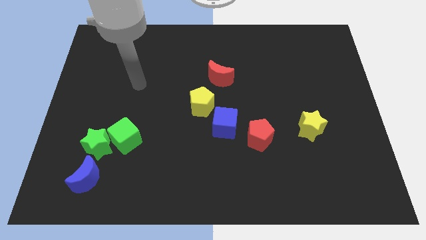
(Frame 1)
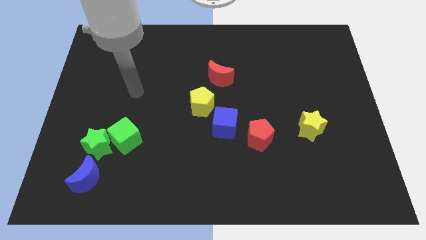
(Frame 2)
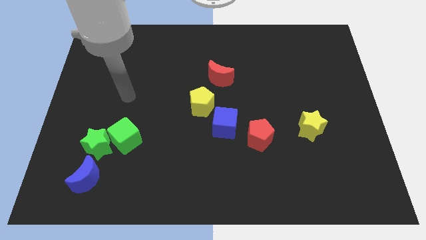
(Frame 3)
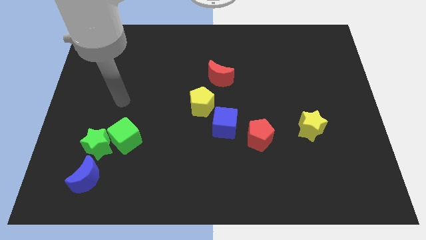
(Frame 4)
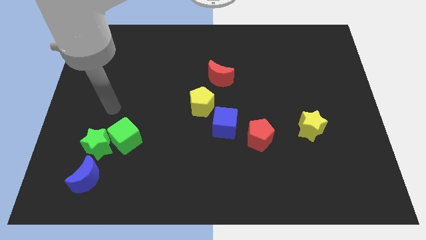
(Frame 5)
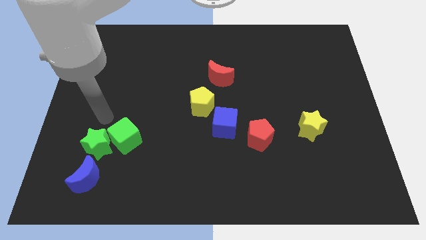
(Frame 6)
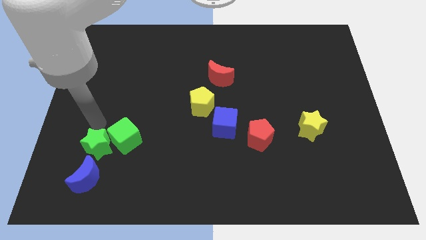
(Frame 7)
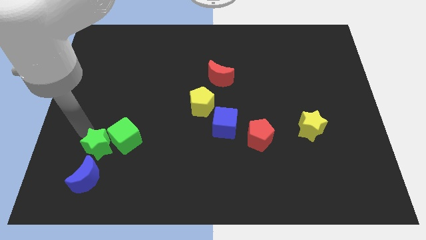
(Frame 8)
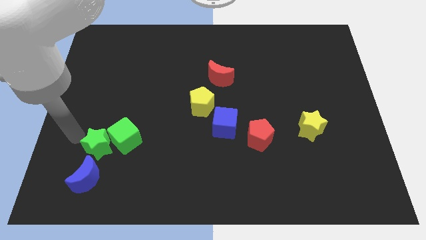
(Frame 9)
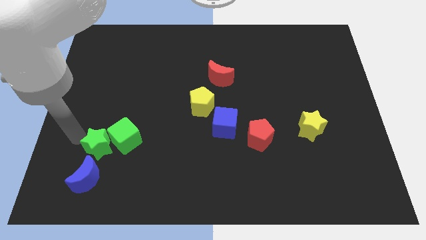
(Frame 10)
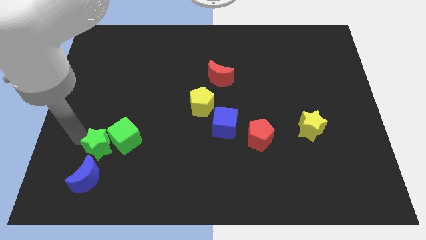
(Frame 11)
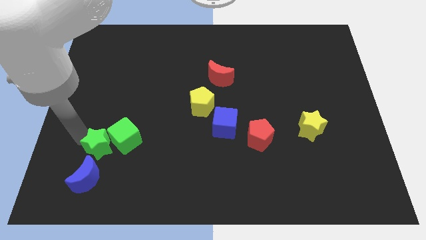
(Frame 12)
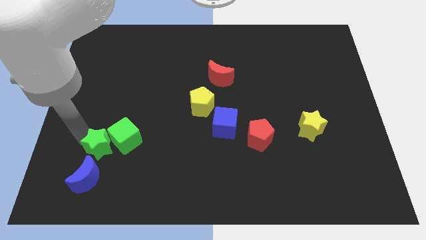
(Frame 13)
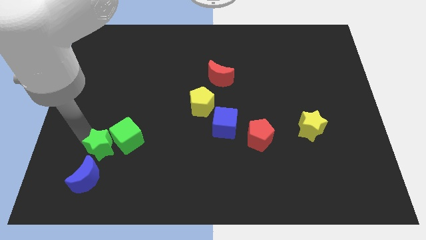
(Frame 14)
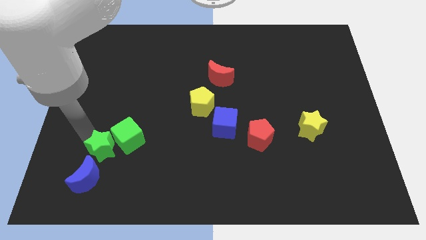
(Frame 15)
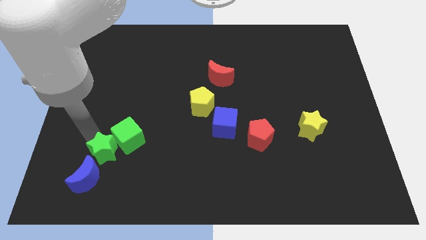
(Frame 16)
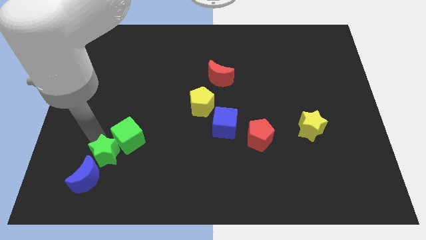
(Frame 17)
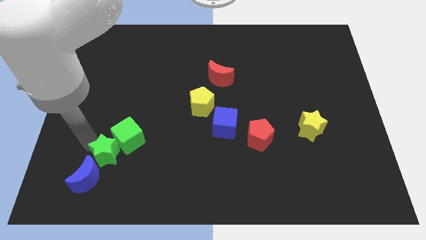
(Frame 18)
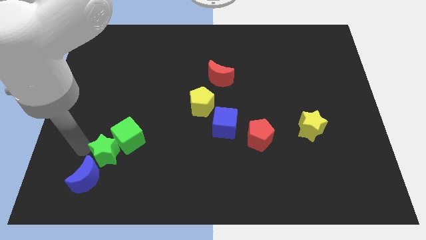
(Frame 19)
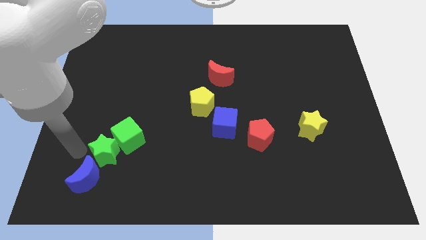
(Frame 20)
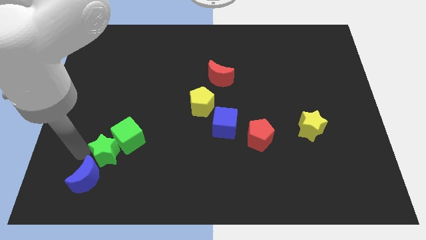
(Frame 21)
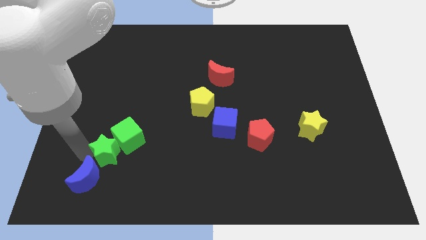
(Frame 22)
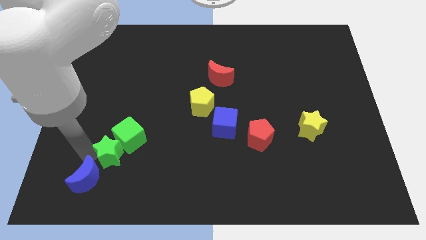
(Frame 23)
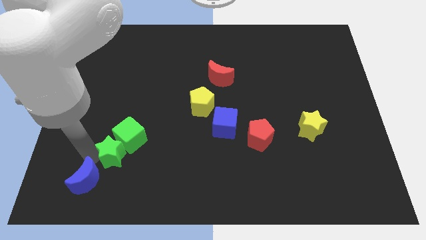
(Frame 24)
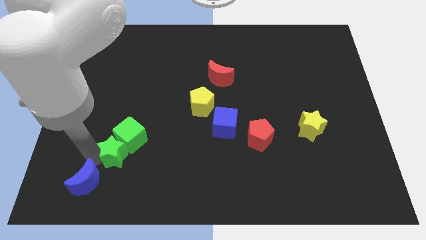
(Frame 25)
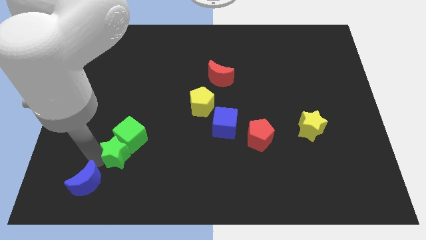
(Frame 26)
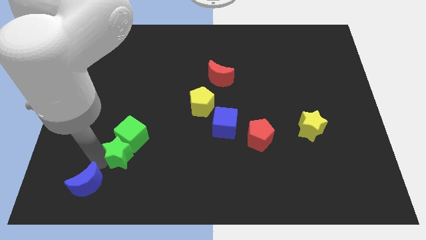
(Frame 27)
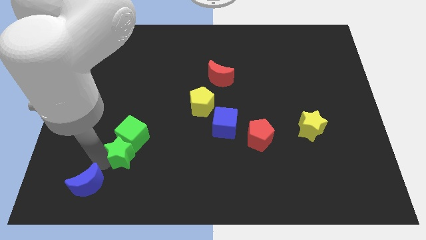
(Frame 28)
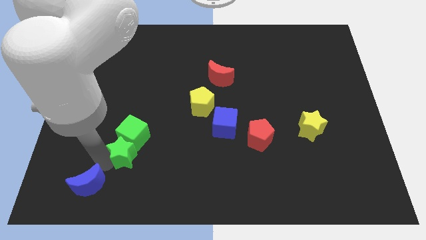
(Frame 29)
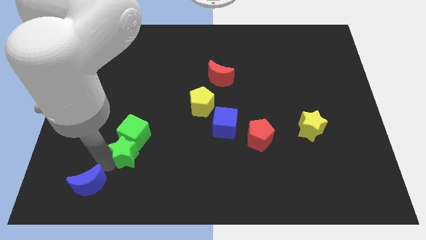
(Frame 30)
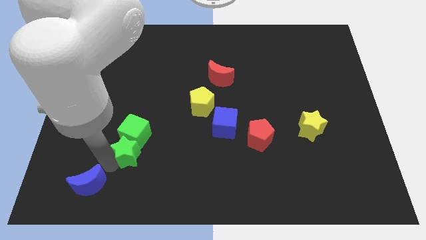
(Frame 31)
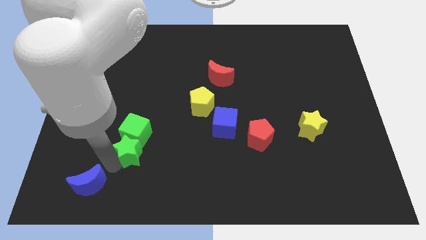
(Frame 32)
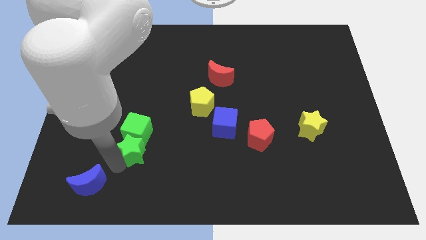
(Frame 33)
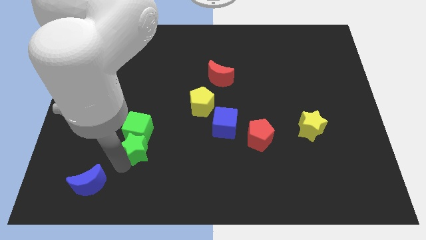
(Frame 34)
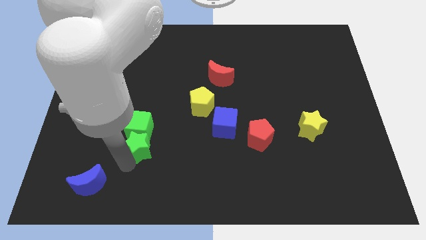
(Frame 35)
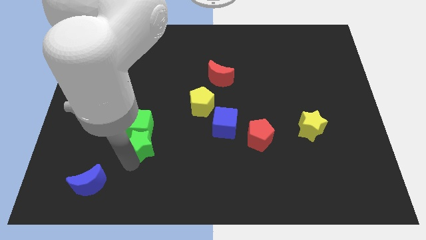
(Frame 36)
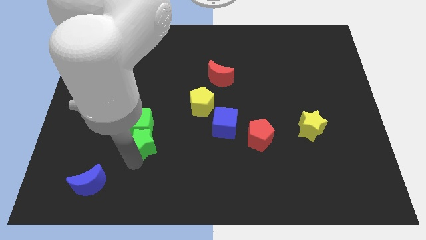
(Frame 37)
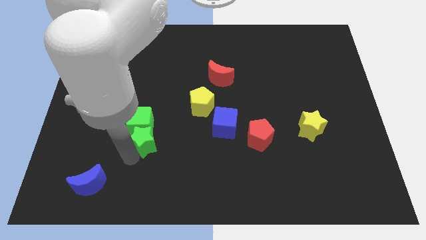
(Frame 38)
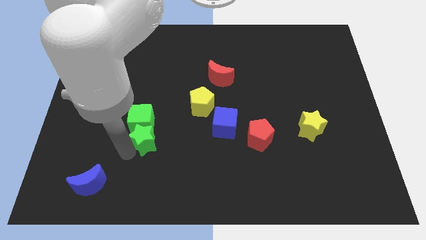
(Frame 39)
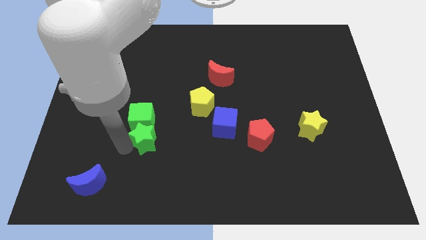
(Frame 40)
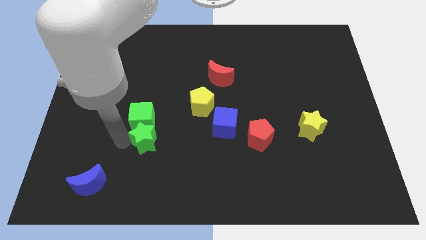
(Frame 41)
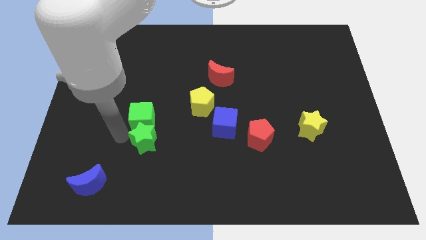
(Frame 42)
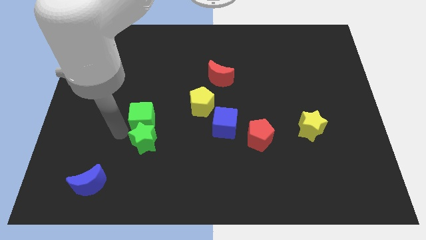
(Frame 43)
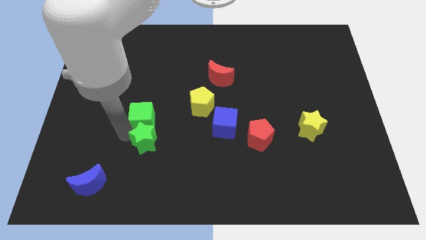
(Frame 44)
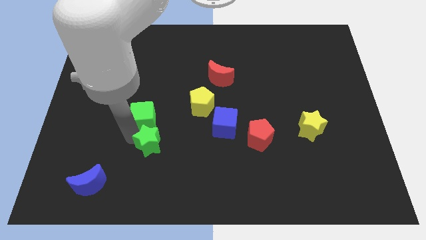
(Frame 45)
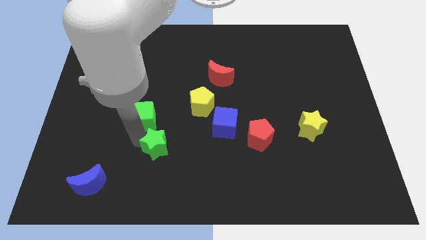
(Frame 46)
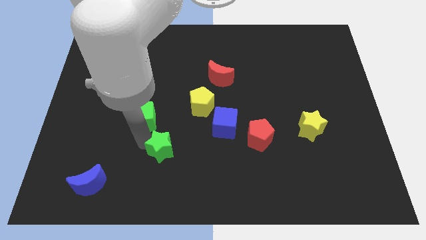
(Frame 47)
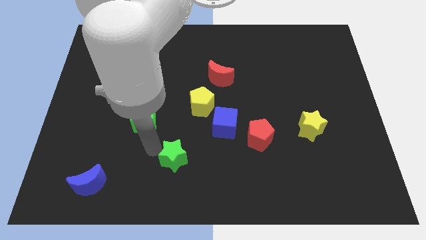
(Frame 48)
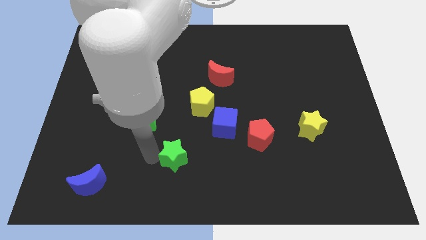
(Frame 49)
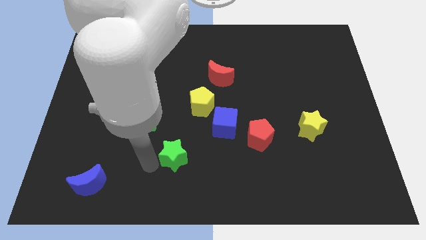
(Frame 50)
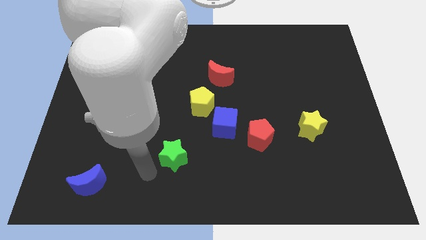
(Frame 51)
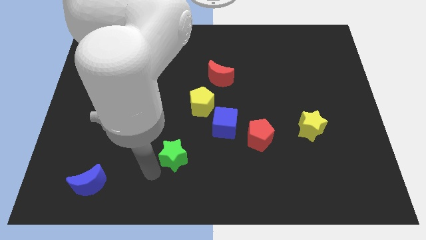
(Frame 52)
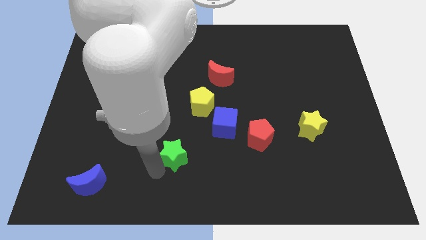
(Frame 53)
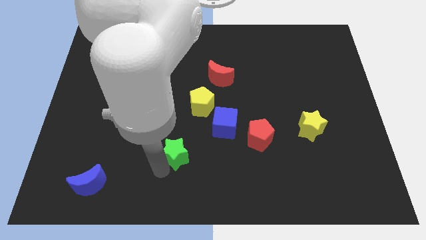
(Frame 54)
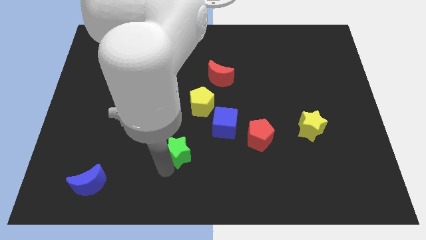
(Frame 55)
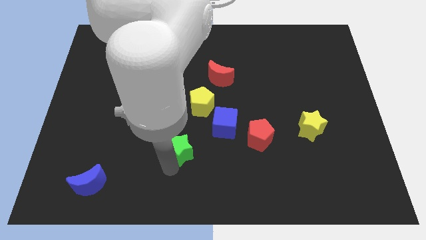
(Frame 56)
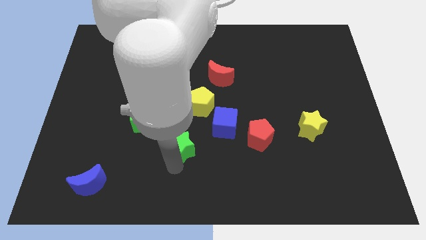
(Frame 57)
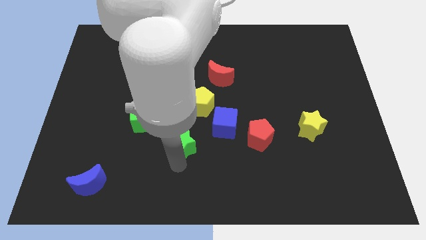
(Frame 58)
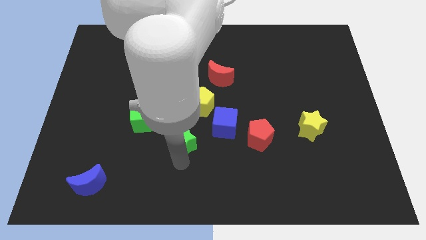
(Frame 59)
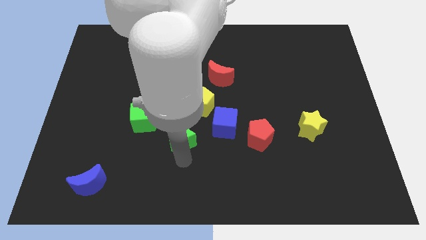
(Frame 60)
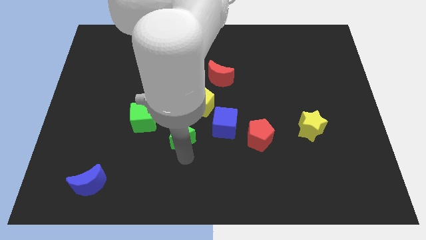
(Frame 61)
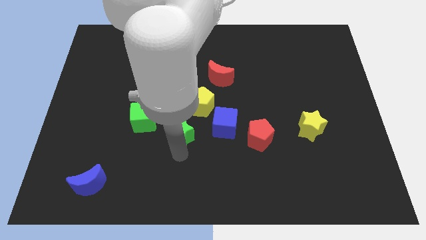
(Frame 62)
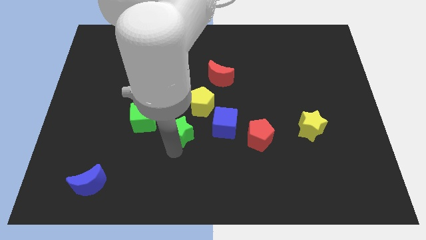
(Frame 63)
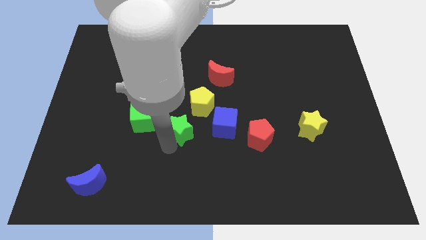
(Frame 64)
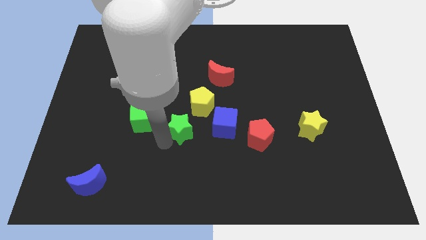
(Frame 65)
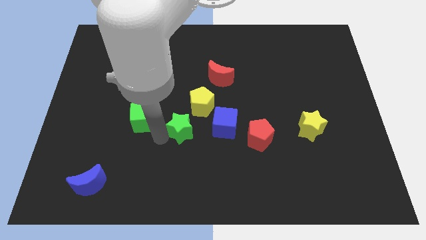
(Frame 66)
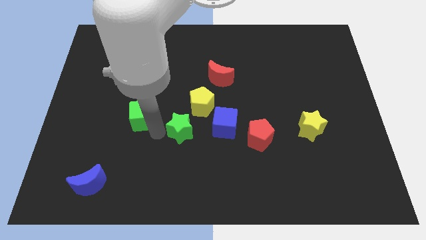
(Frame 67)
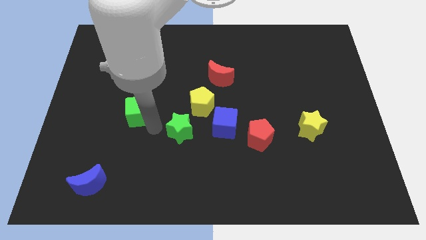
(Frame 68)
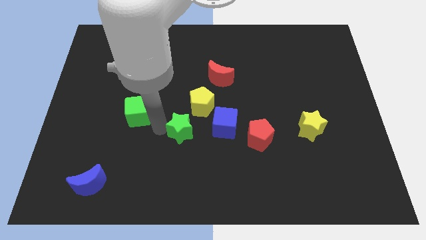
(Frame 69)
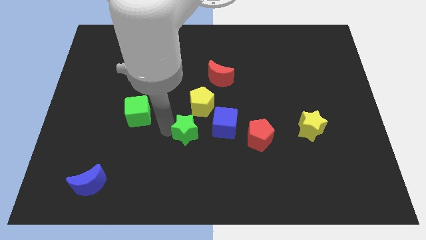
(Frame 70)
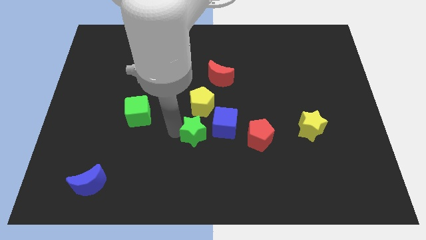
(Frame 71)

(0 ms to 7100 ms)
move the green star left of the red pentagon
